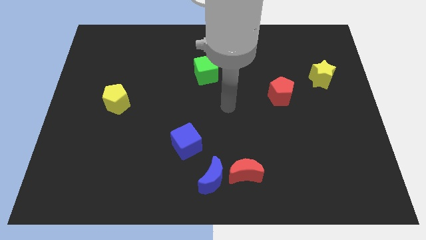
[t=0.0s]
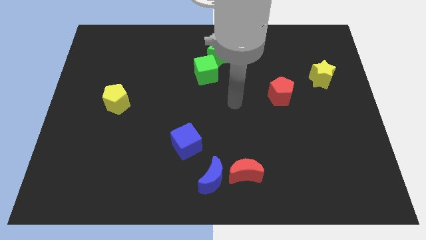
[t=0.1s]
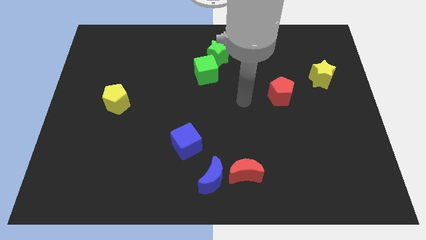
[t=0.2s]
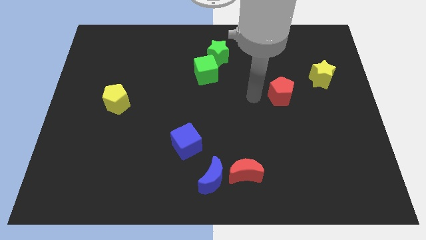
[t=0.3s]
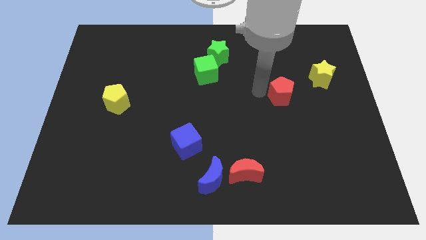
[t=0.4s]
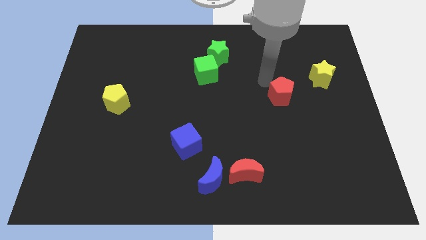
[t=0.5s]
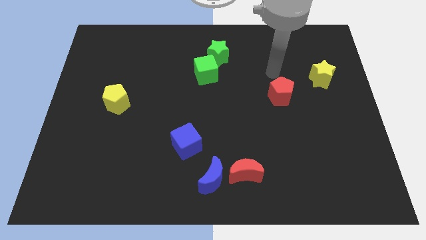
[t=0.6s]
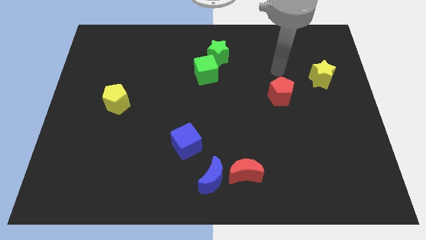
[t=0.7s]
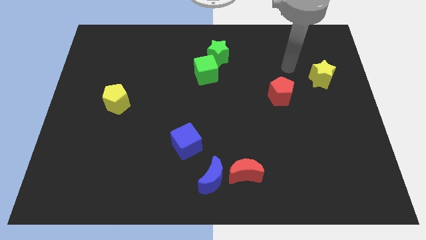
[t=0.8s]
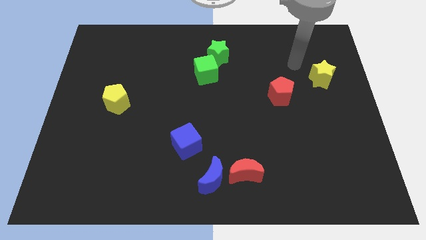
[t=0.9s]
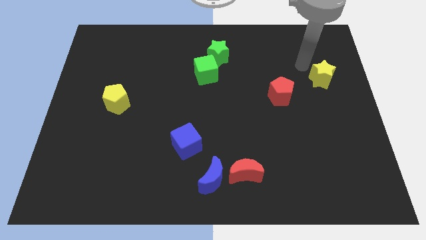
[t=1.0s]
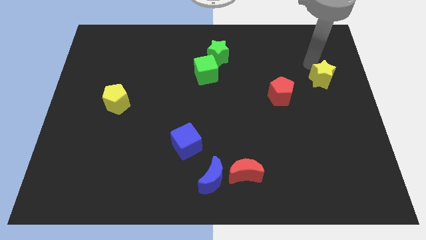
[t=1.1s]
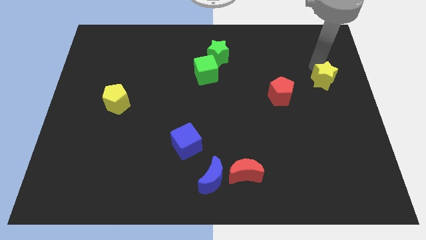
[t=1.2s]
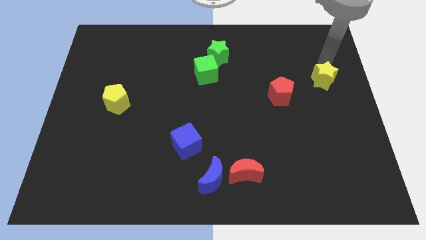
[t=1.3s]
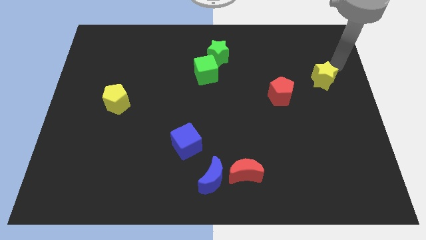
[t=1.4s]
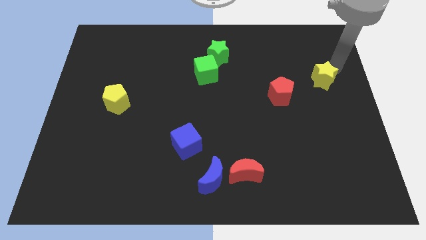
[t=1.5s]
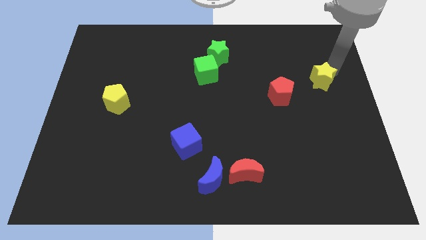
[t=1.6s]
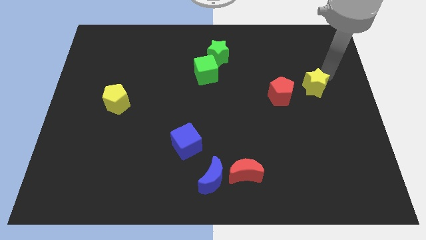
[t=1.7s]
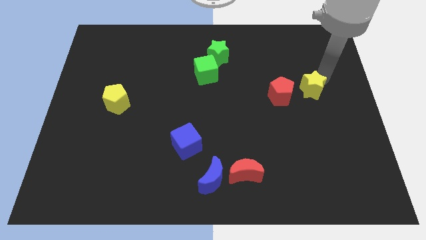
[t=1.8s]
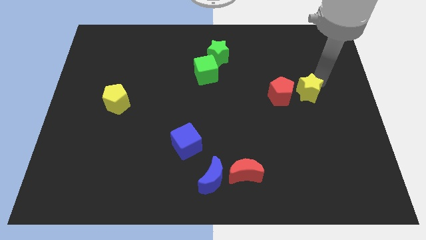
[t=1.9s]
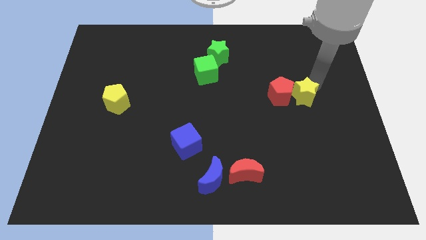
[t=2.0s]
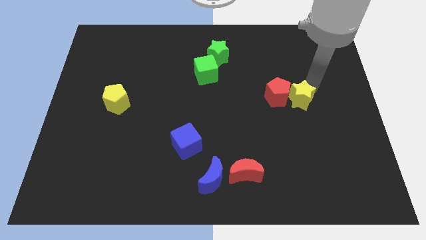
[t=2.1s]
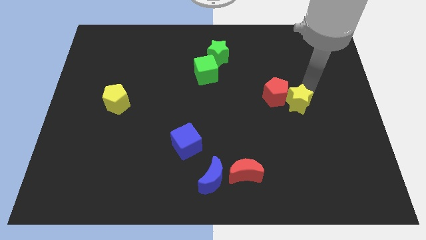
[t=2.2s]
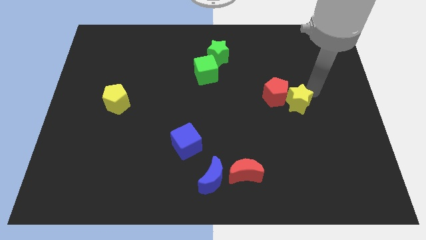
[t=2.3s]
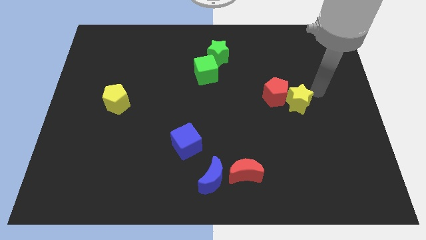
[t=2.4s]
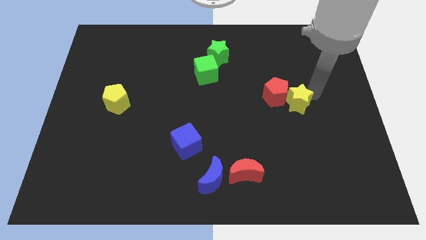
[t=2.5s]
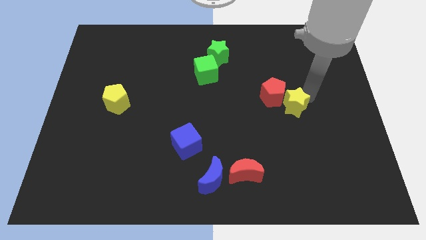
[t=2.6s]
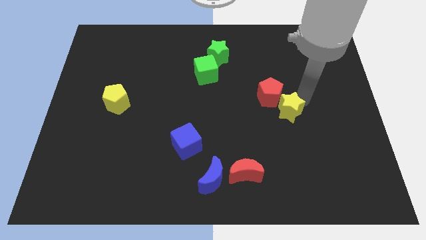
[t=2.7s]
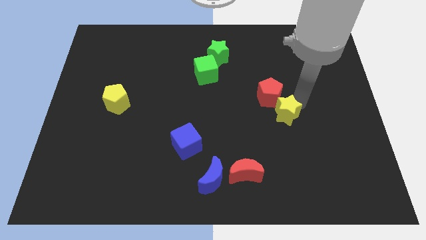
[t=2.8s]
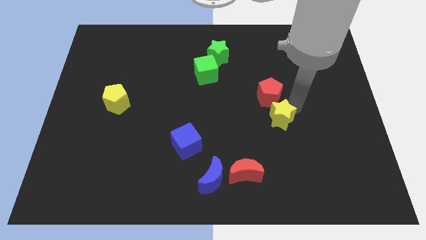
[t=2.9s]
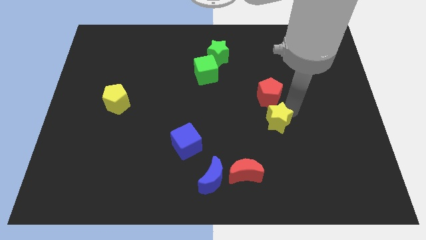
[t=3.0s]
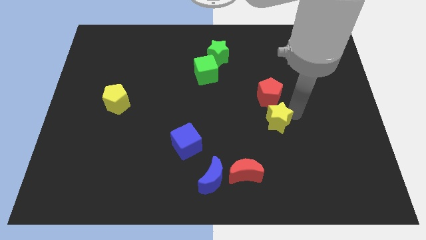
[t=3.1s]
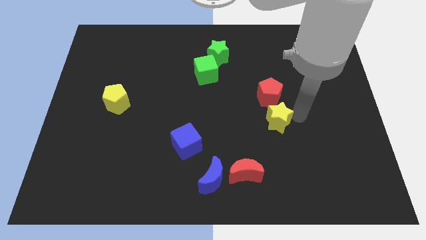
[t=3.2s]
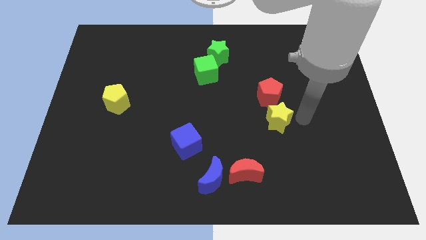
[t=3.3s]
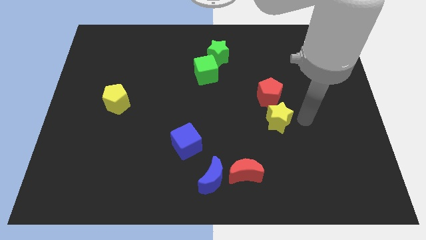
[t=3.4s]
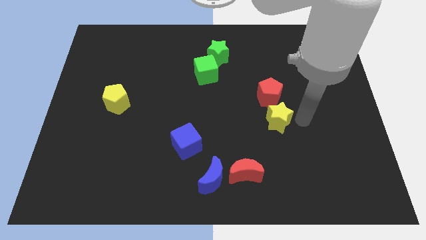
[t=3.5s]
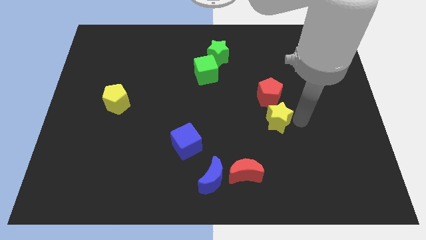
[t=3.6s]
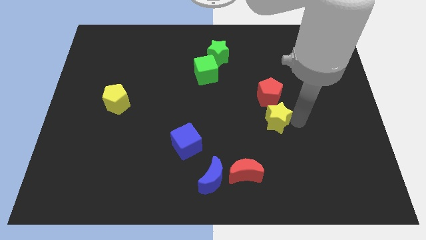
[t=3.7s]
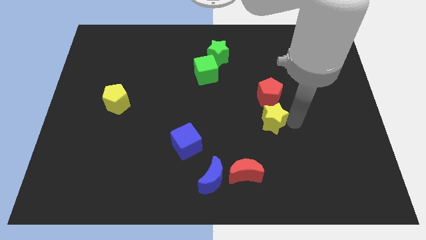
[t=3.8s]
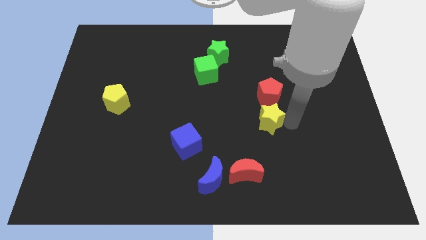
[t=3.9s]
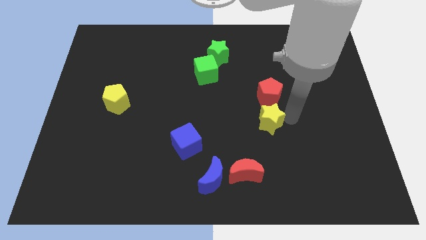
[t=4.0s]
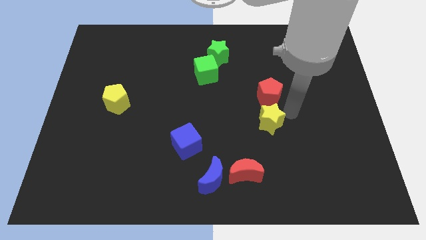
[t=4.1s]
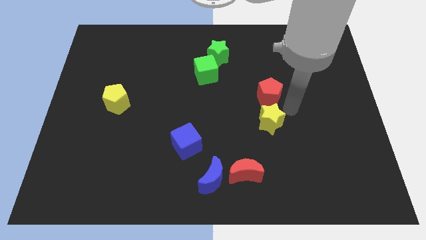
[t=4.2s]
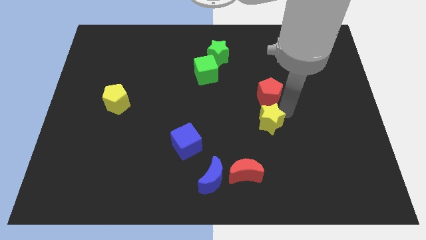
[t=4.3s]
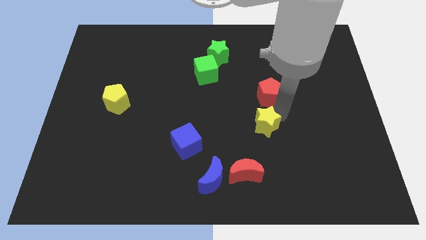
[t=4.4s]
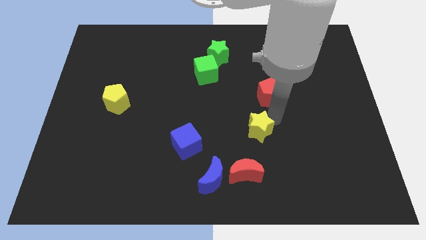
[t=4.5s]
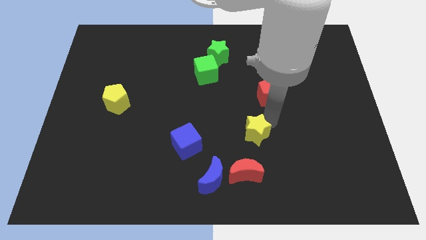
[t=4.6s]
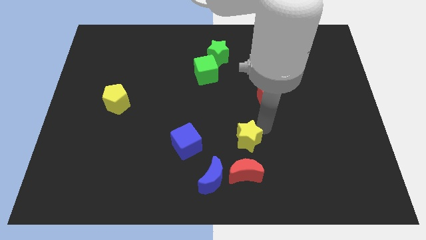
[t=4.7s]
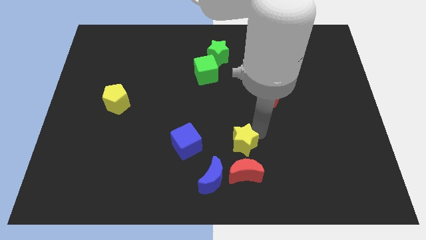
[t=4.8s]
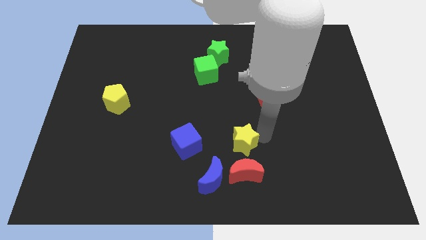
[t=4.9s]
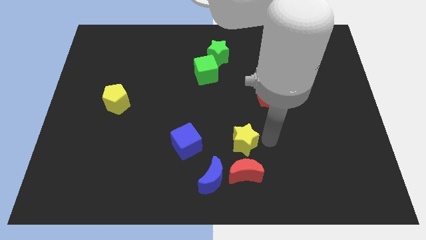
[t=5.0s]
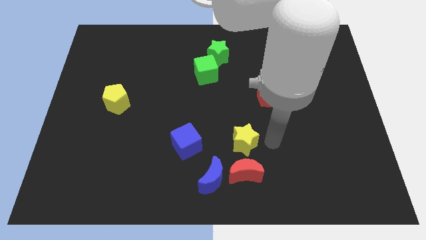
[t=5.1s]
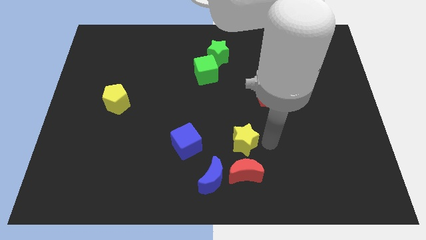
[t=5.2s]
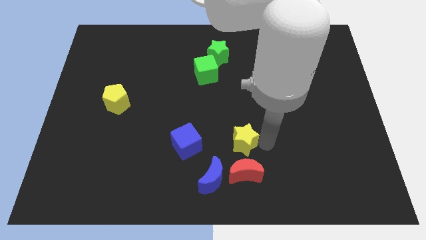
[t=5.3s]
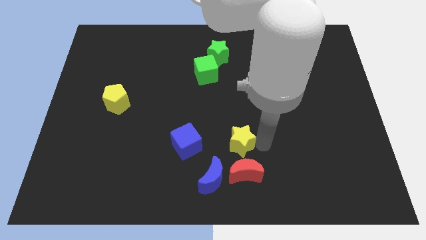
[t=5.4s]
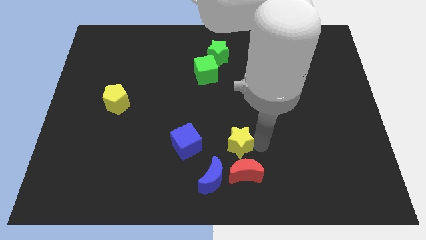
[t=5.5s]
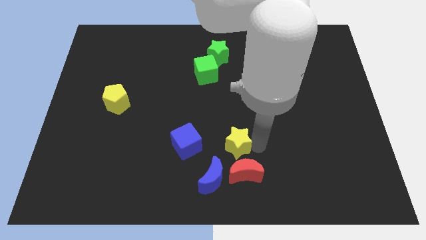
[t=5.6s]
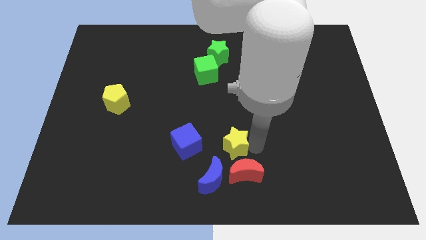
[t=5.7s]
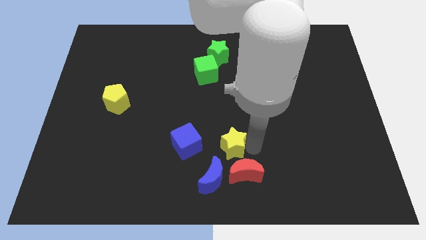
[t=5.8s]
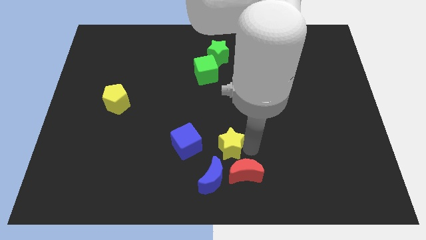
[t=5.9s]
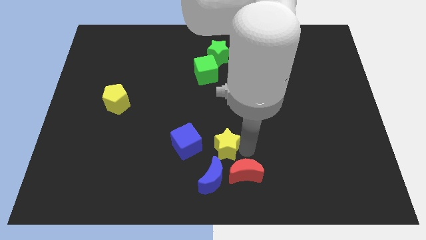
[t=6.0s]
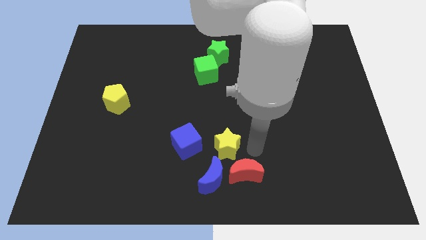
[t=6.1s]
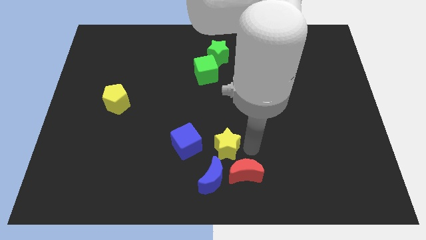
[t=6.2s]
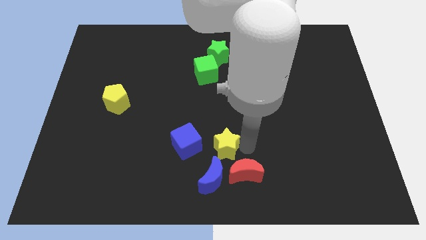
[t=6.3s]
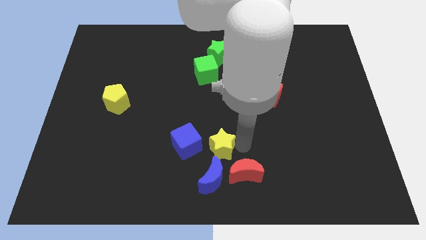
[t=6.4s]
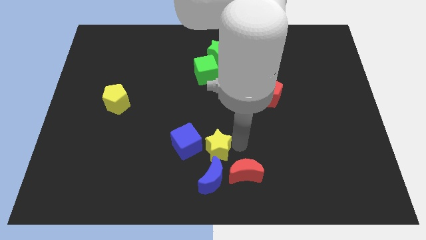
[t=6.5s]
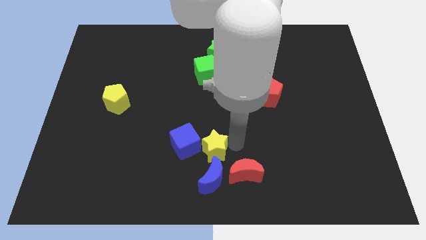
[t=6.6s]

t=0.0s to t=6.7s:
slide the yellow star towards the blue cube

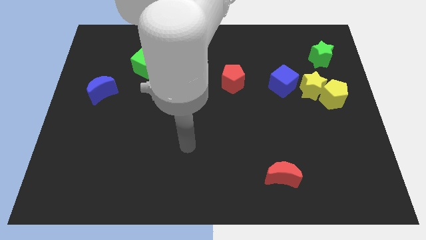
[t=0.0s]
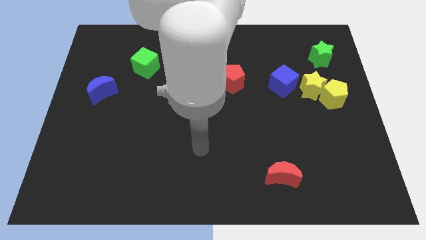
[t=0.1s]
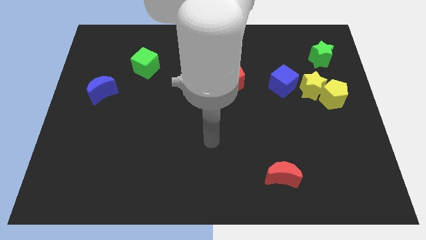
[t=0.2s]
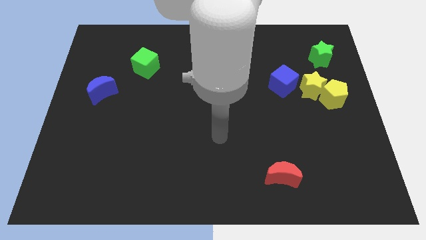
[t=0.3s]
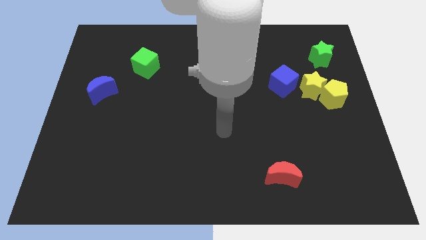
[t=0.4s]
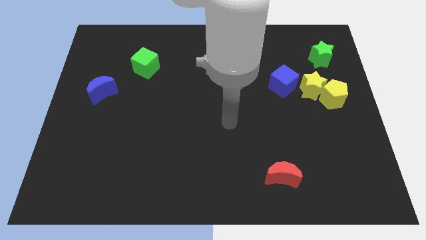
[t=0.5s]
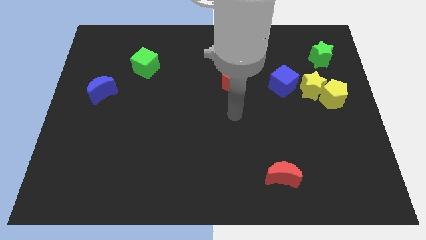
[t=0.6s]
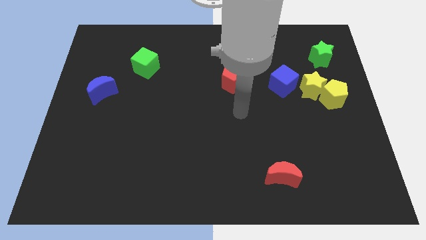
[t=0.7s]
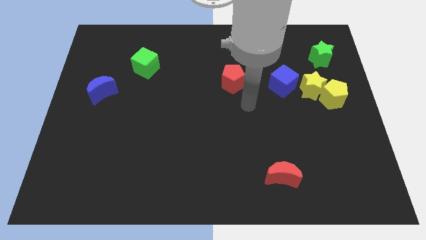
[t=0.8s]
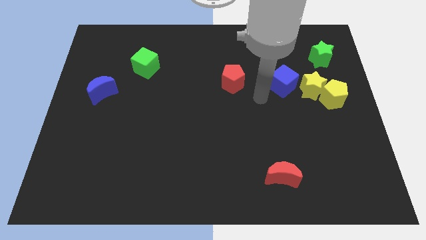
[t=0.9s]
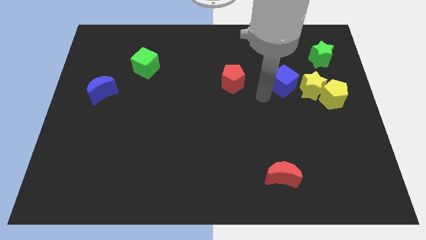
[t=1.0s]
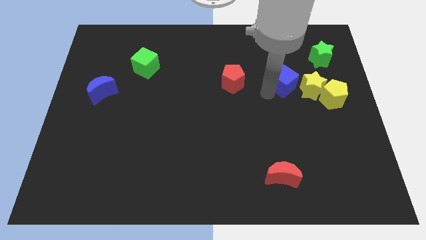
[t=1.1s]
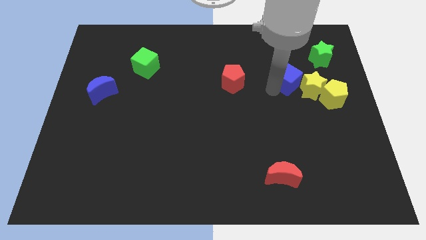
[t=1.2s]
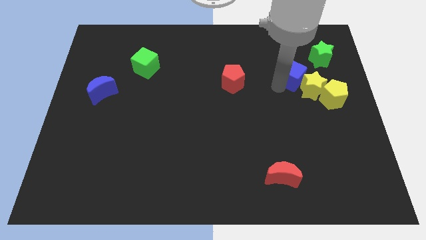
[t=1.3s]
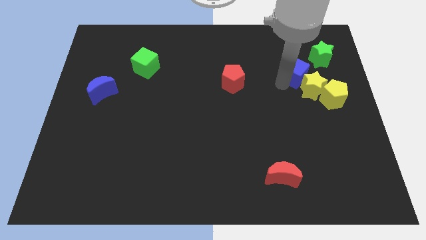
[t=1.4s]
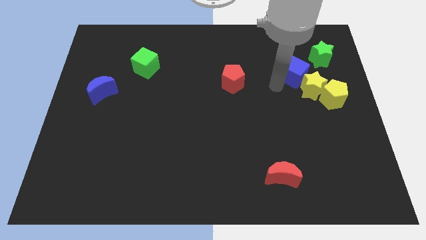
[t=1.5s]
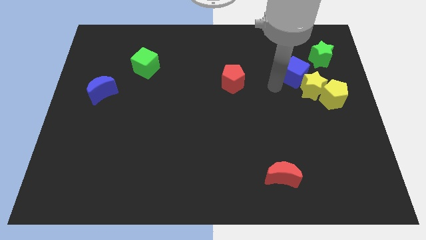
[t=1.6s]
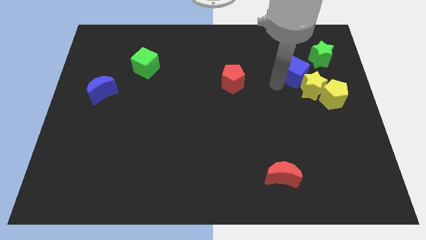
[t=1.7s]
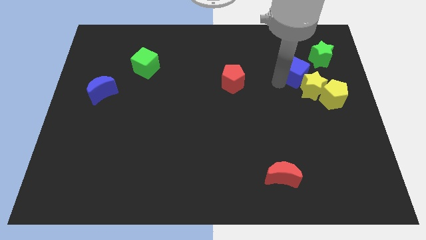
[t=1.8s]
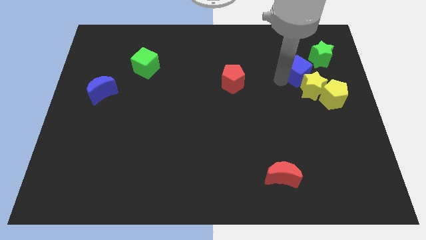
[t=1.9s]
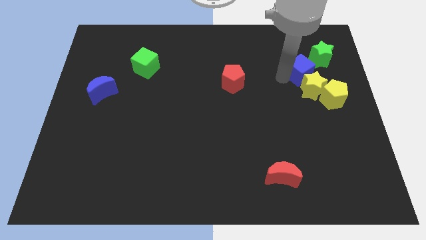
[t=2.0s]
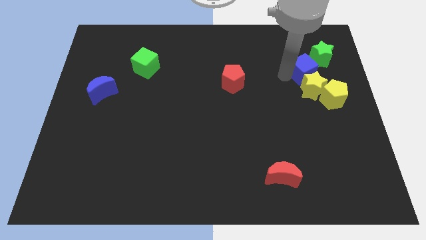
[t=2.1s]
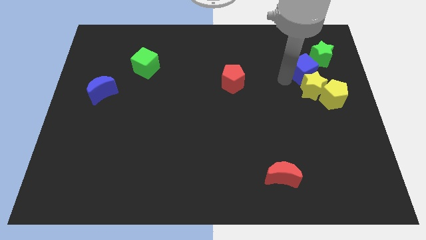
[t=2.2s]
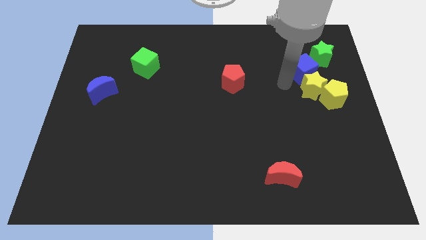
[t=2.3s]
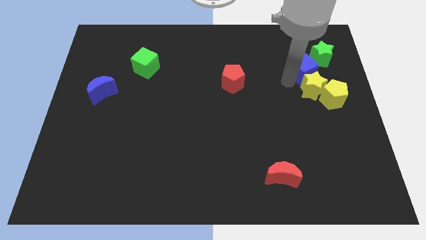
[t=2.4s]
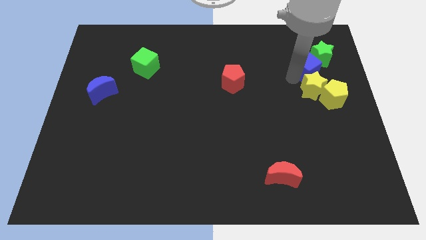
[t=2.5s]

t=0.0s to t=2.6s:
push the blue cube next to the green star
